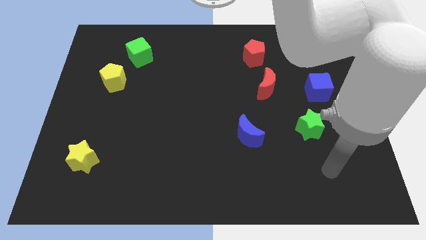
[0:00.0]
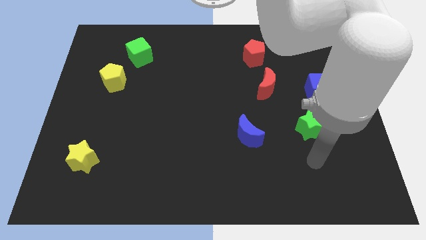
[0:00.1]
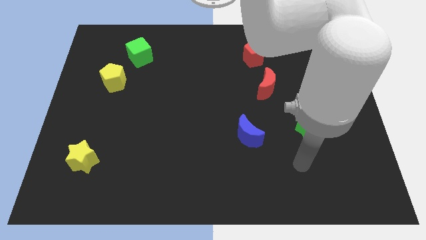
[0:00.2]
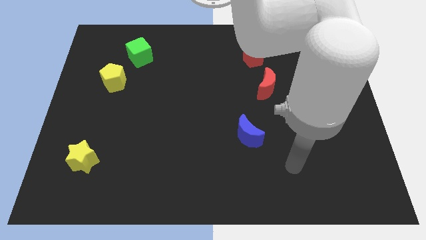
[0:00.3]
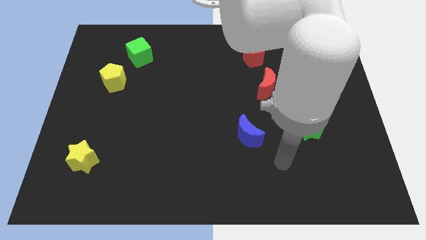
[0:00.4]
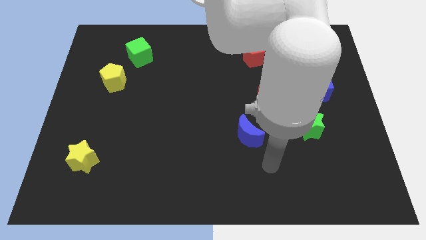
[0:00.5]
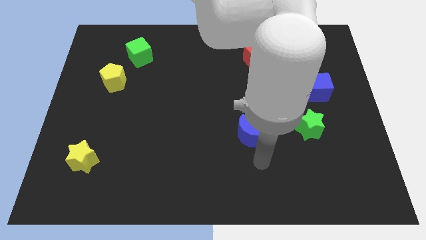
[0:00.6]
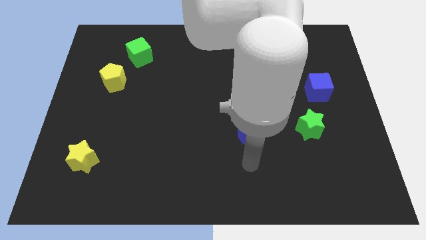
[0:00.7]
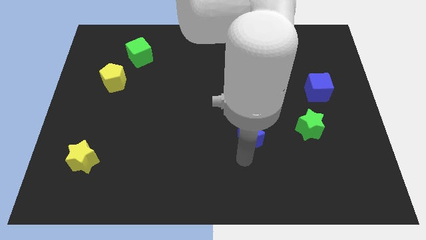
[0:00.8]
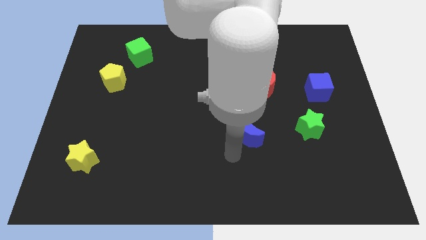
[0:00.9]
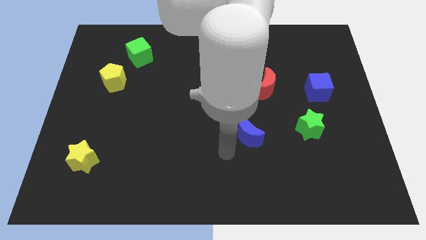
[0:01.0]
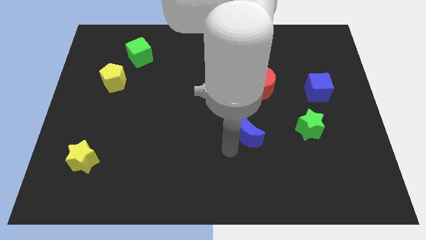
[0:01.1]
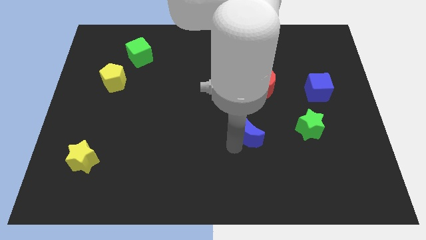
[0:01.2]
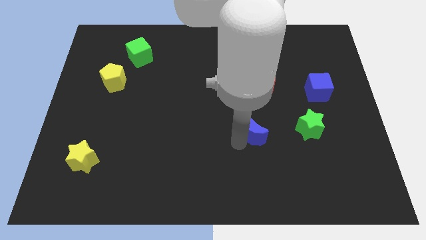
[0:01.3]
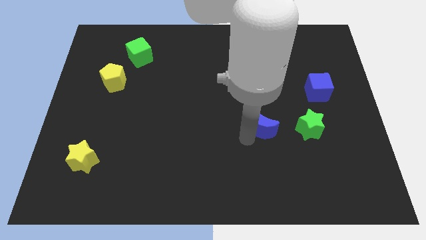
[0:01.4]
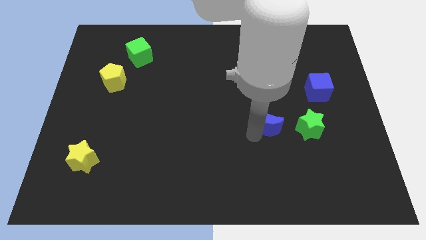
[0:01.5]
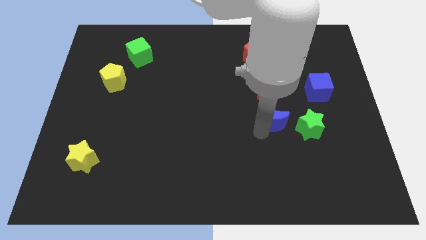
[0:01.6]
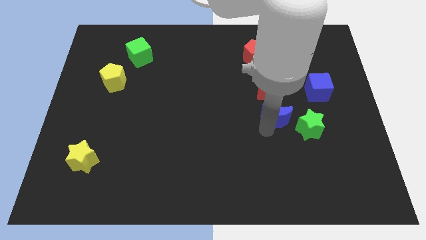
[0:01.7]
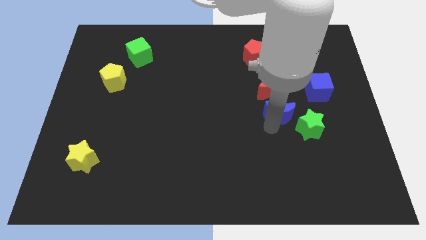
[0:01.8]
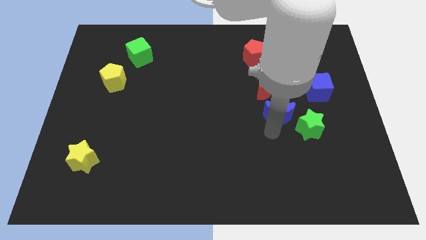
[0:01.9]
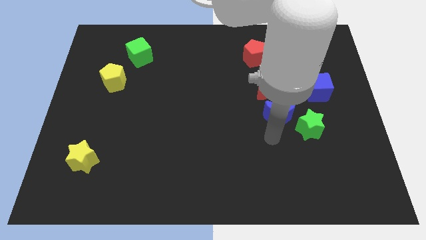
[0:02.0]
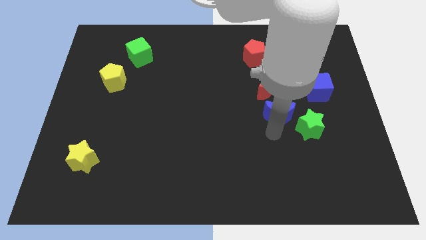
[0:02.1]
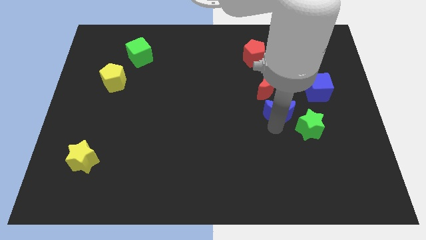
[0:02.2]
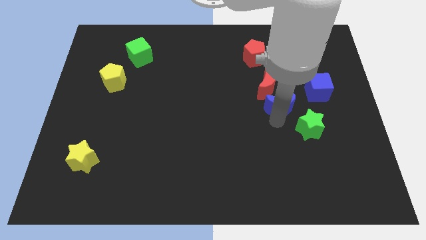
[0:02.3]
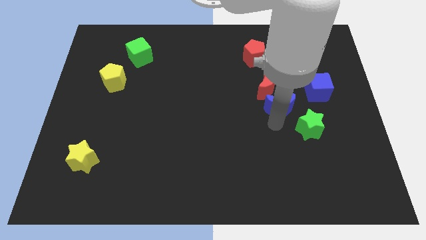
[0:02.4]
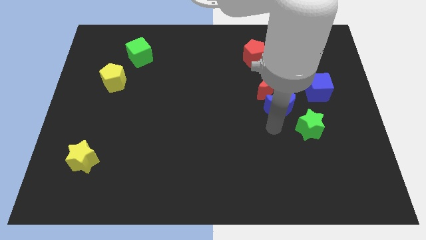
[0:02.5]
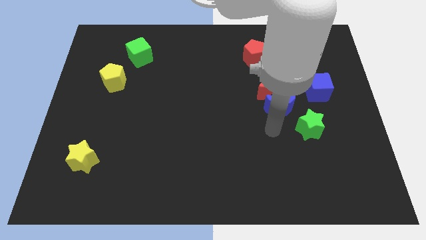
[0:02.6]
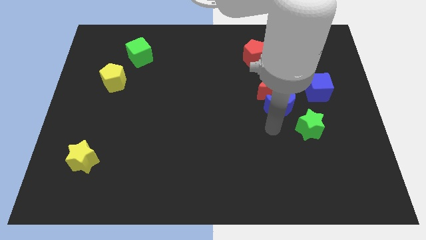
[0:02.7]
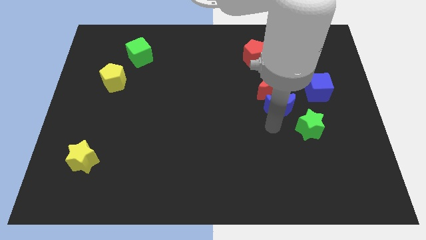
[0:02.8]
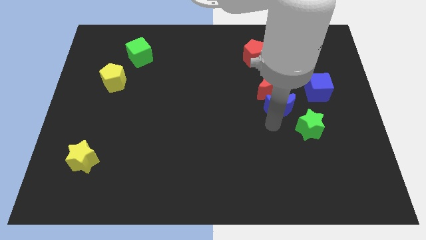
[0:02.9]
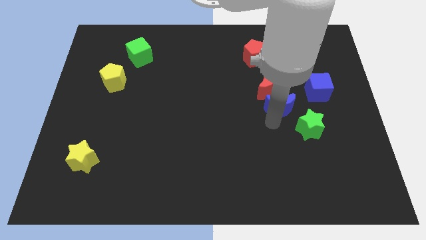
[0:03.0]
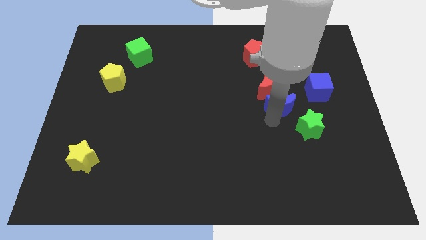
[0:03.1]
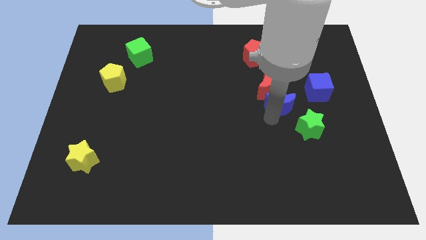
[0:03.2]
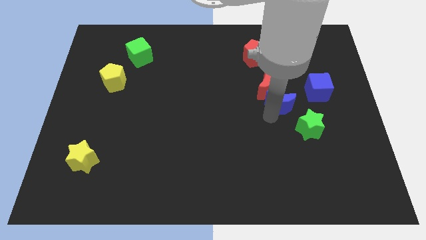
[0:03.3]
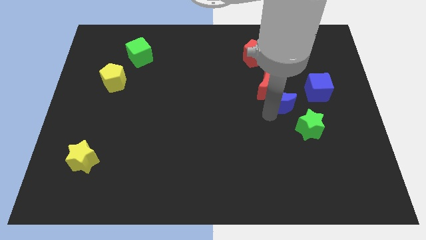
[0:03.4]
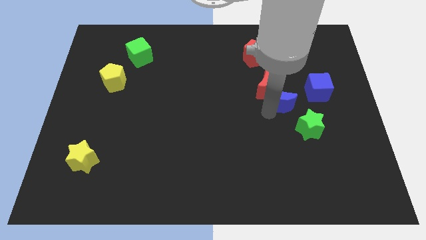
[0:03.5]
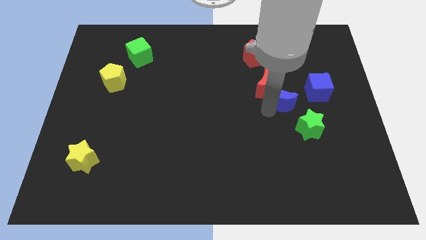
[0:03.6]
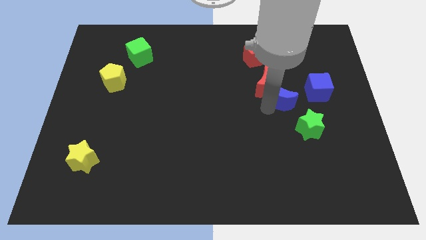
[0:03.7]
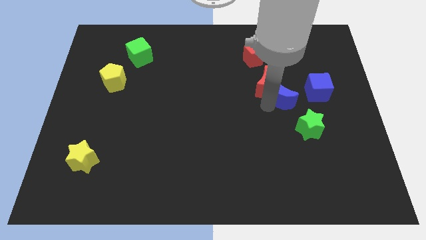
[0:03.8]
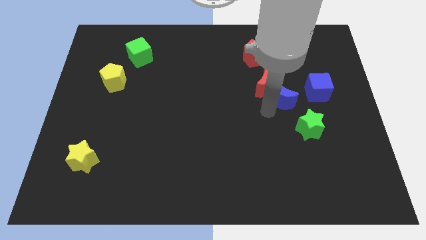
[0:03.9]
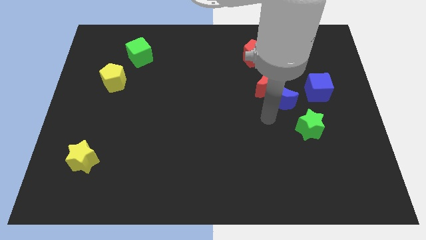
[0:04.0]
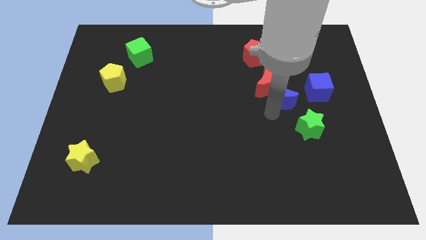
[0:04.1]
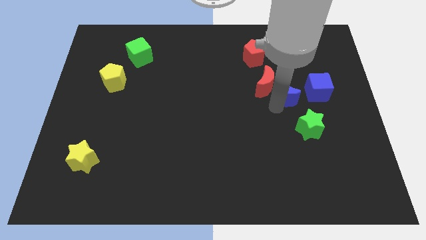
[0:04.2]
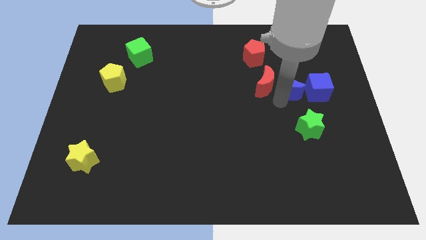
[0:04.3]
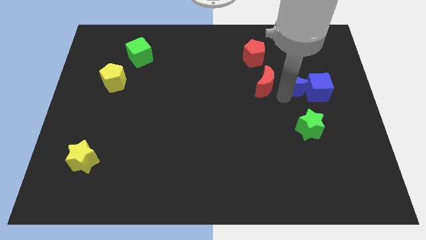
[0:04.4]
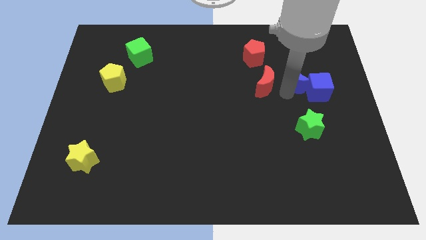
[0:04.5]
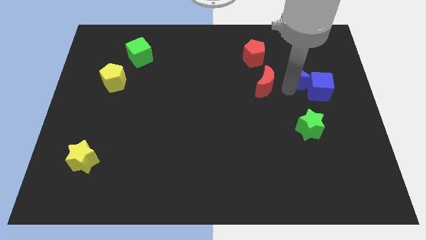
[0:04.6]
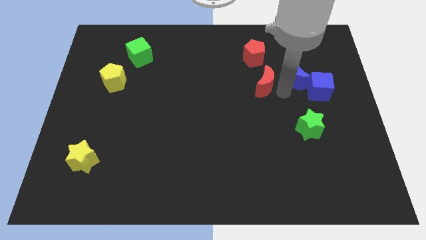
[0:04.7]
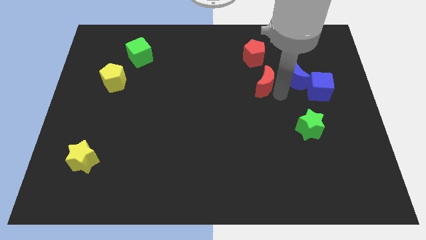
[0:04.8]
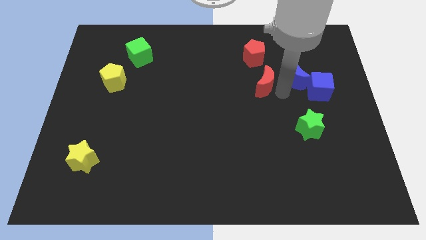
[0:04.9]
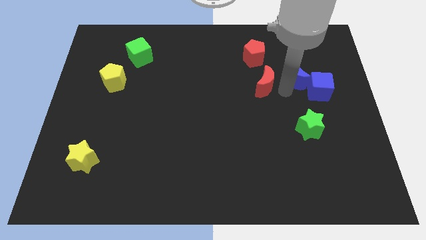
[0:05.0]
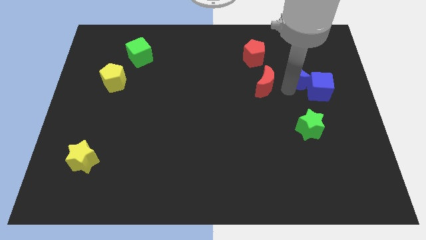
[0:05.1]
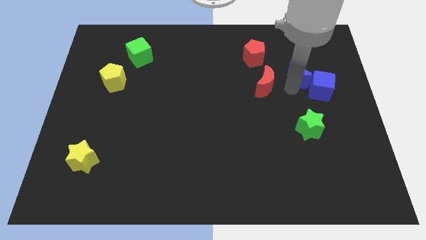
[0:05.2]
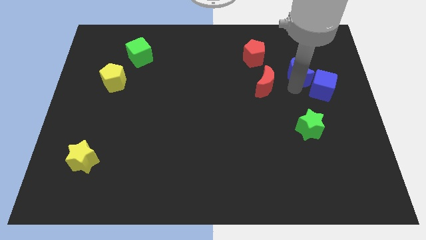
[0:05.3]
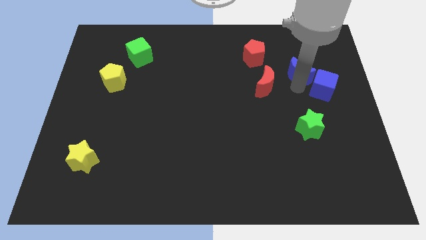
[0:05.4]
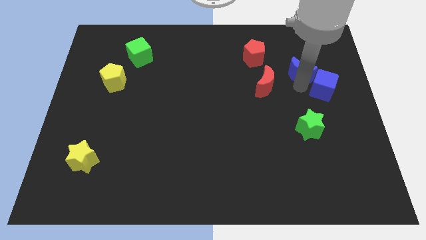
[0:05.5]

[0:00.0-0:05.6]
put the blue moon to the top side of the blue cube

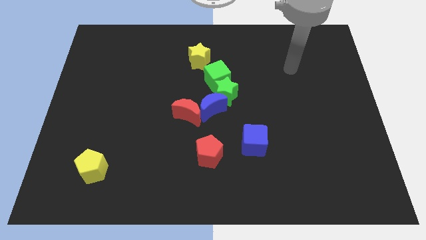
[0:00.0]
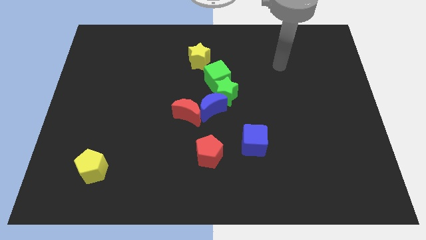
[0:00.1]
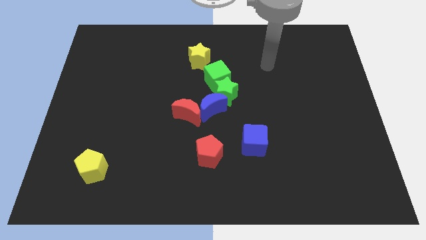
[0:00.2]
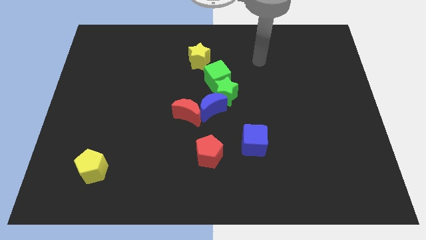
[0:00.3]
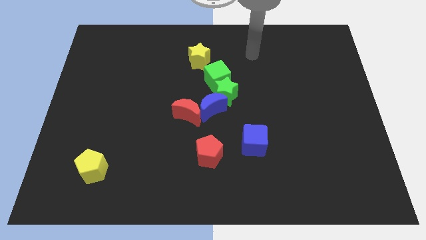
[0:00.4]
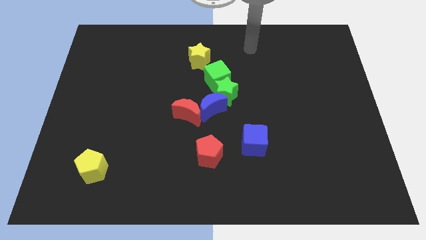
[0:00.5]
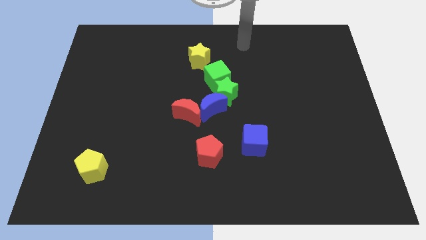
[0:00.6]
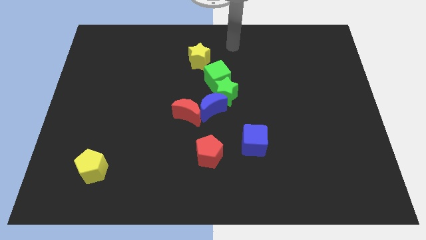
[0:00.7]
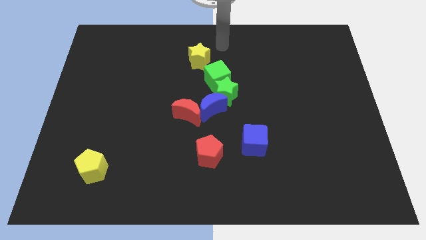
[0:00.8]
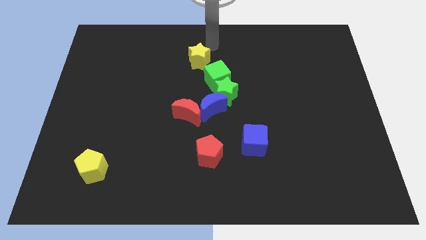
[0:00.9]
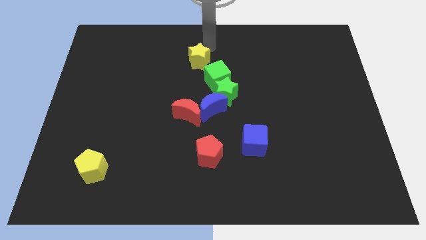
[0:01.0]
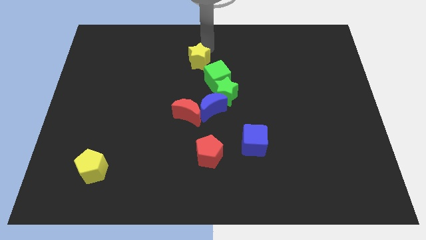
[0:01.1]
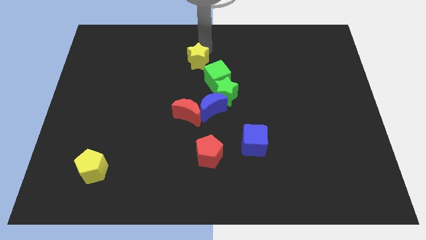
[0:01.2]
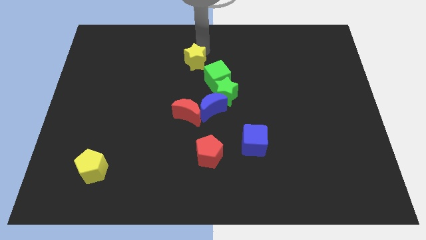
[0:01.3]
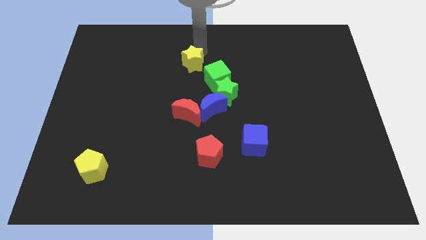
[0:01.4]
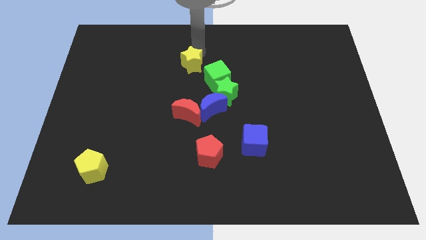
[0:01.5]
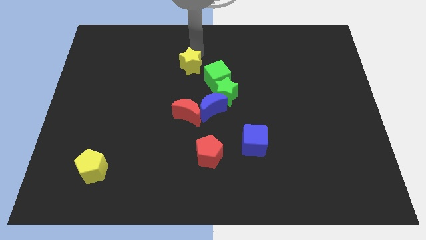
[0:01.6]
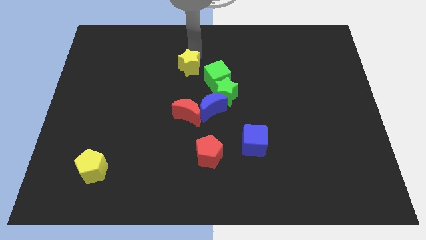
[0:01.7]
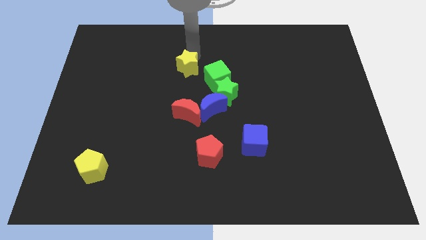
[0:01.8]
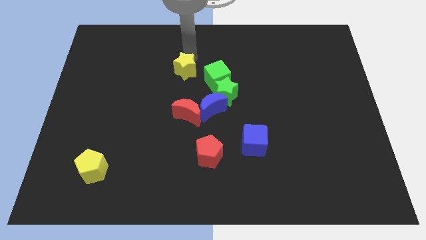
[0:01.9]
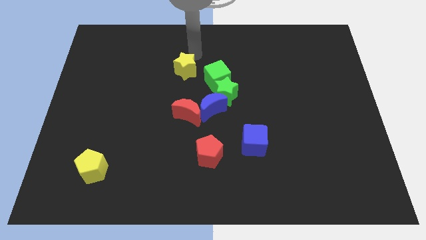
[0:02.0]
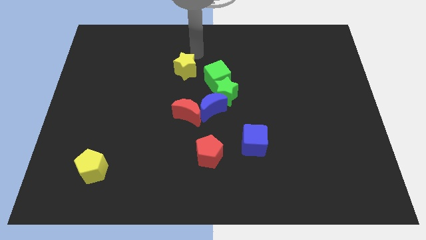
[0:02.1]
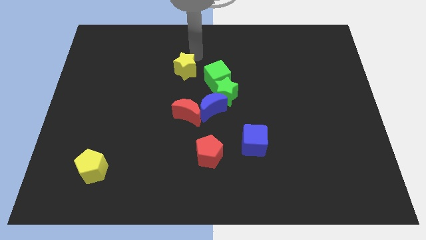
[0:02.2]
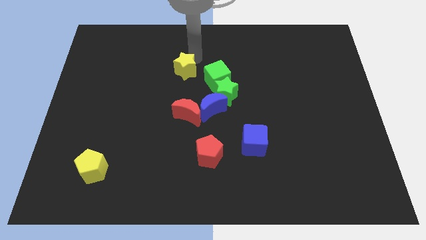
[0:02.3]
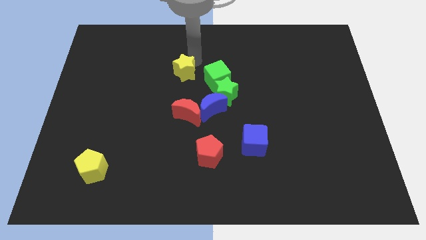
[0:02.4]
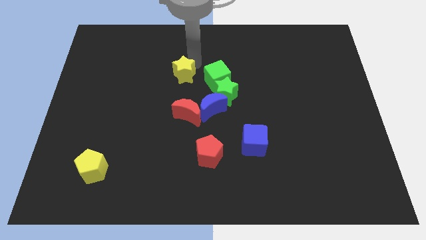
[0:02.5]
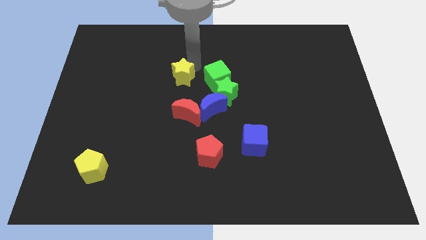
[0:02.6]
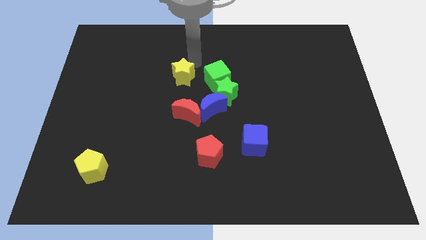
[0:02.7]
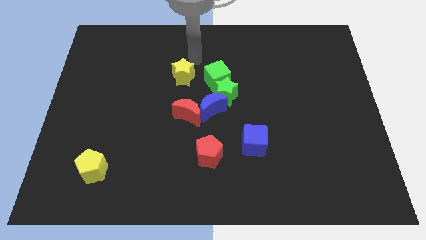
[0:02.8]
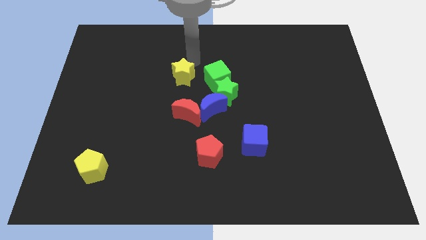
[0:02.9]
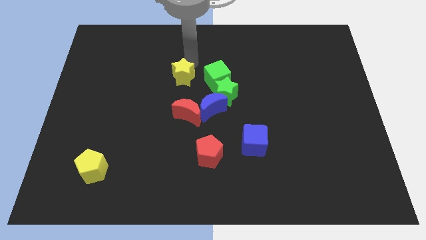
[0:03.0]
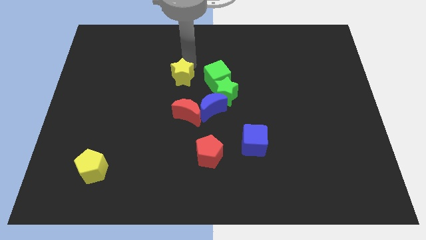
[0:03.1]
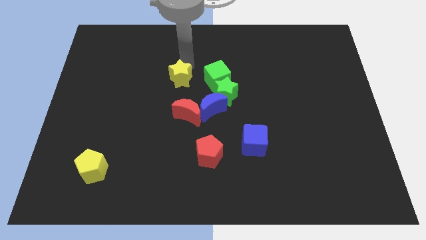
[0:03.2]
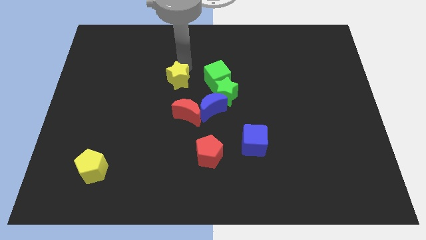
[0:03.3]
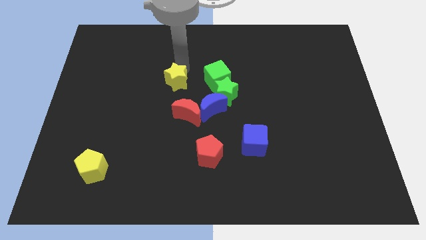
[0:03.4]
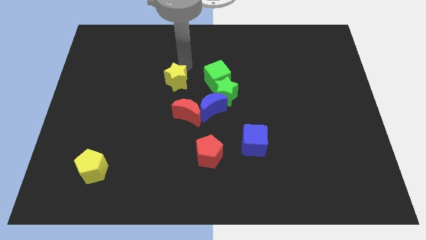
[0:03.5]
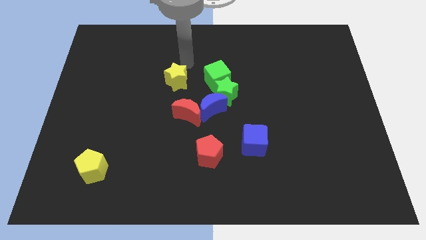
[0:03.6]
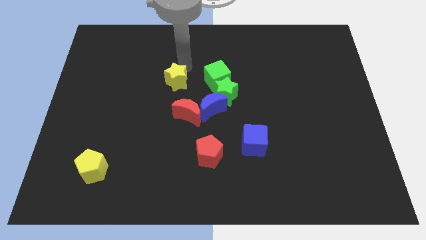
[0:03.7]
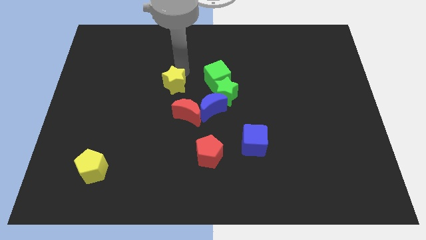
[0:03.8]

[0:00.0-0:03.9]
put the yellow star diagonally up and to the left of the red moon
